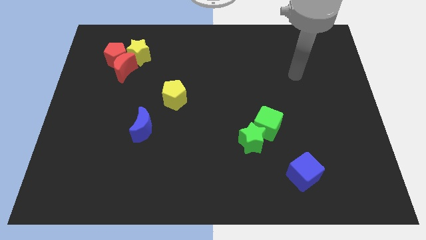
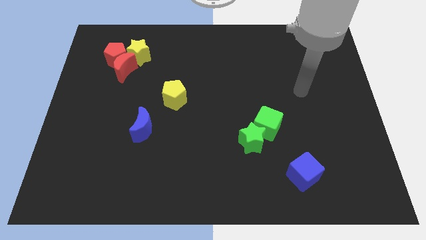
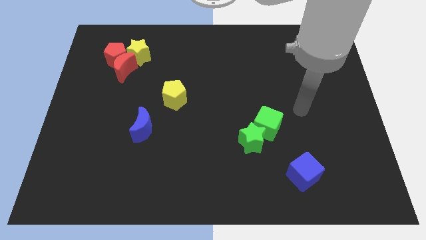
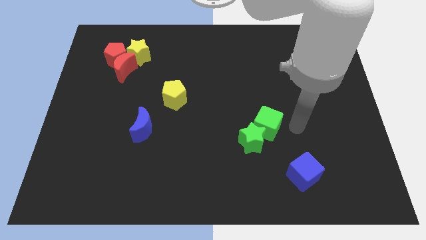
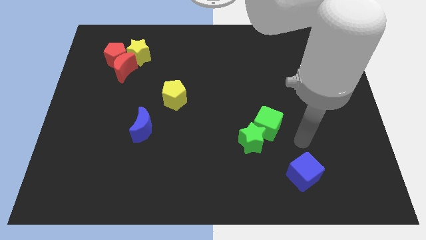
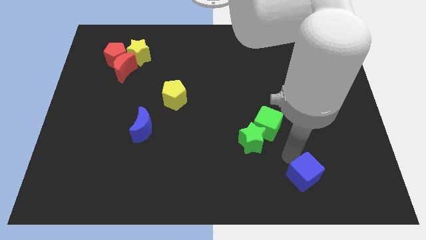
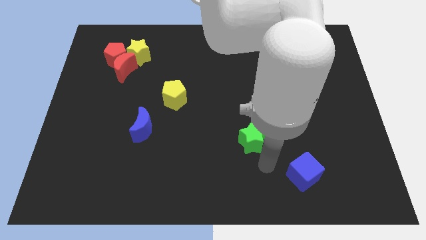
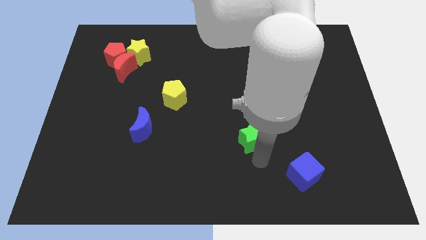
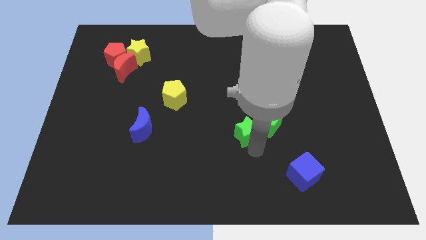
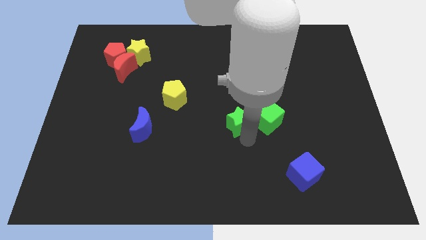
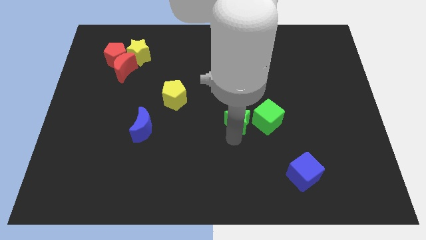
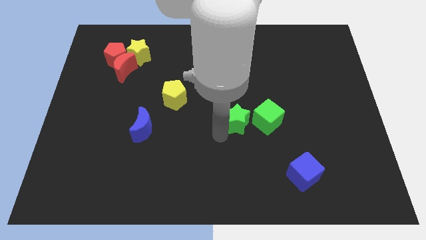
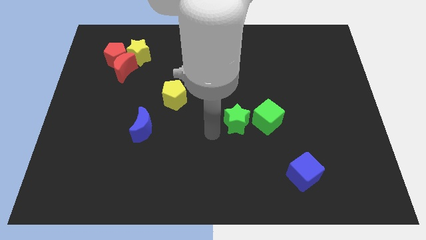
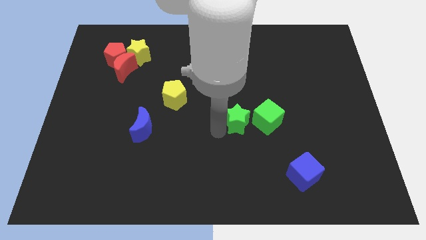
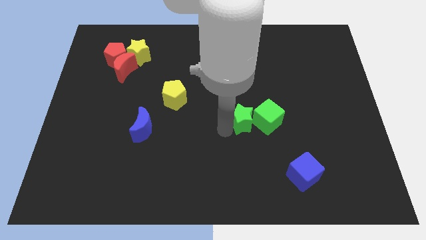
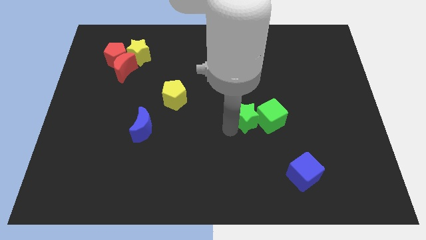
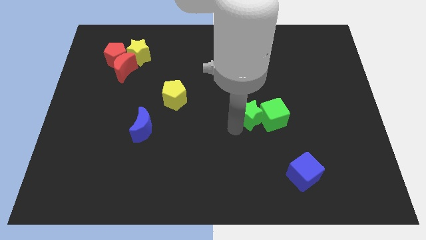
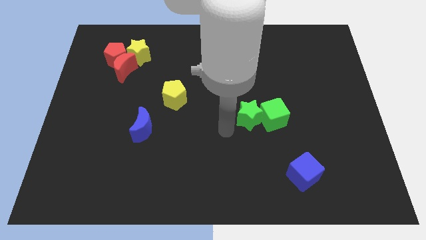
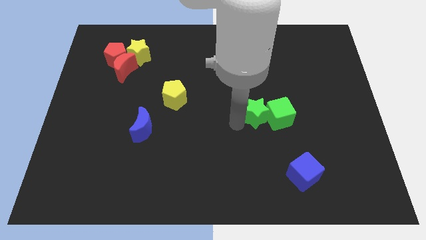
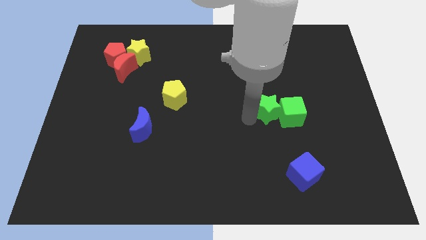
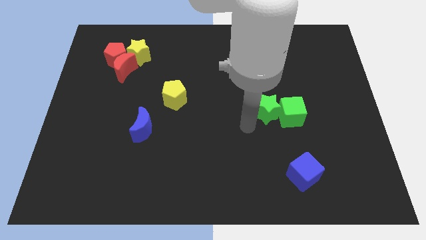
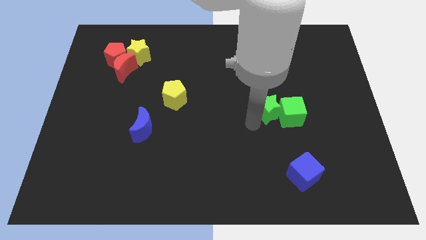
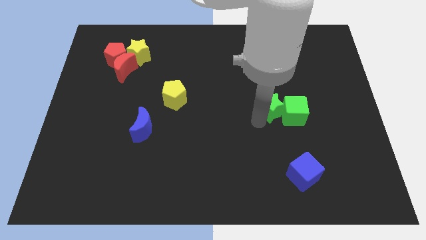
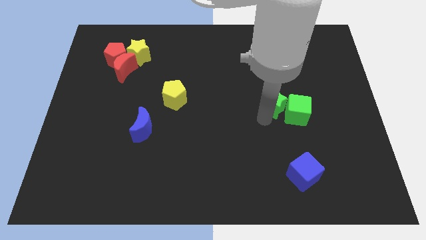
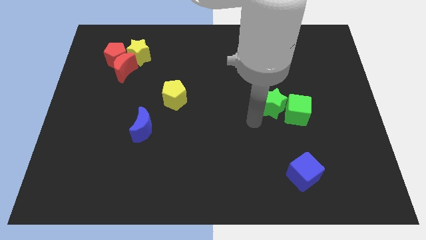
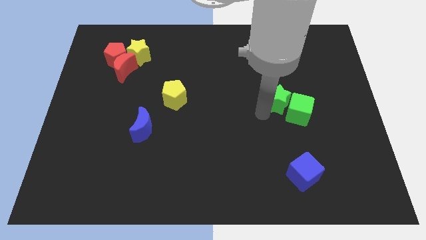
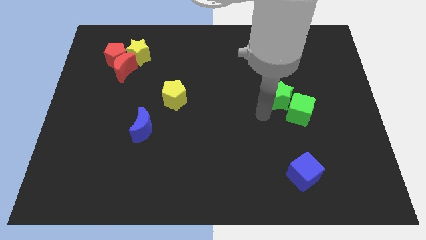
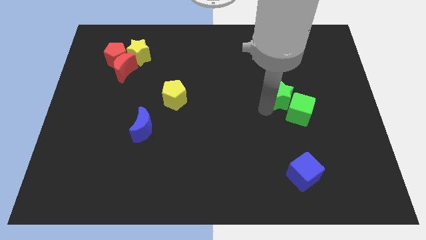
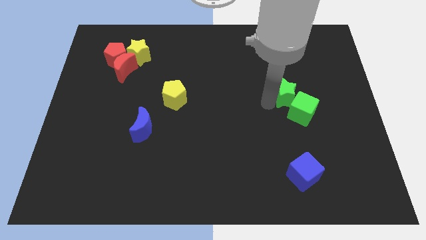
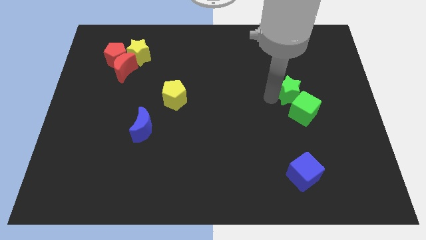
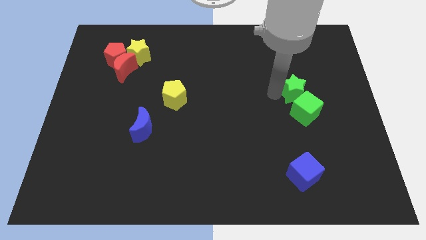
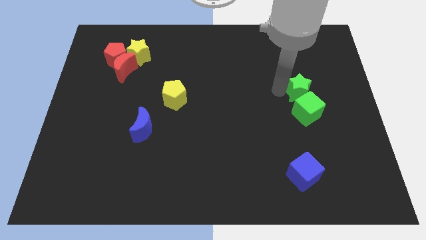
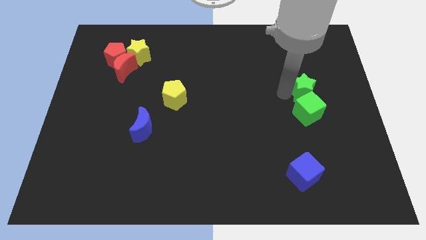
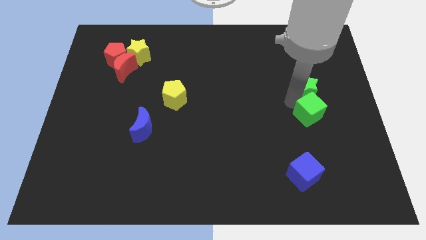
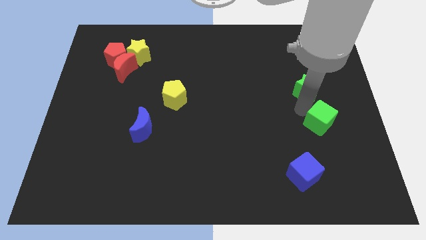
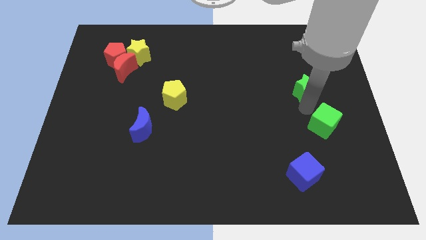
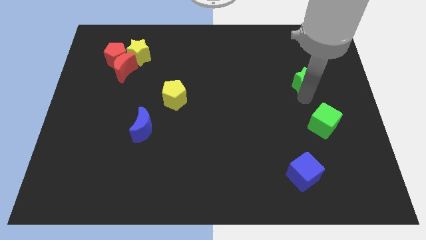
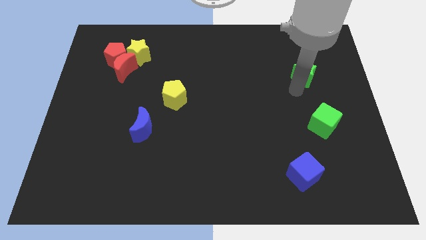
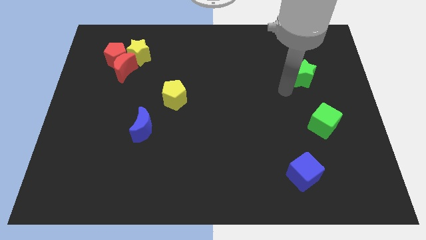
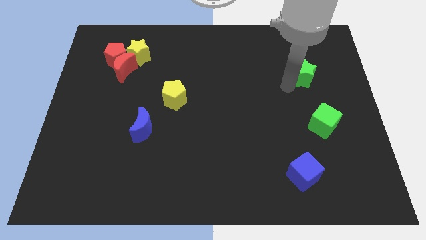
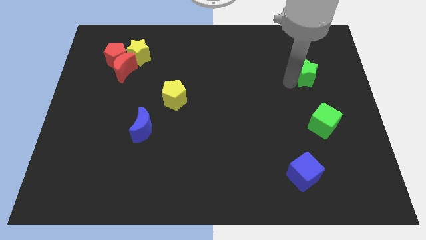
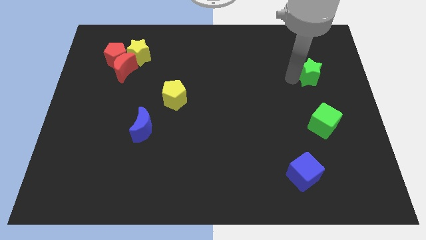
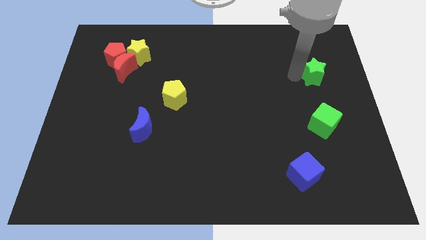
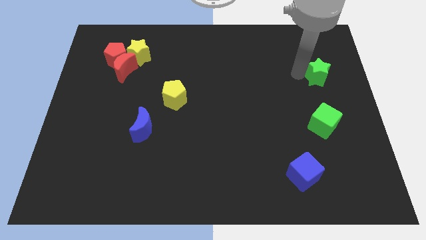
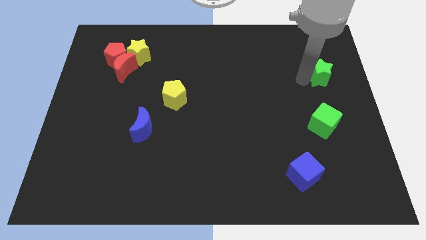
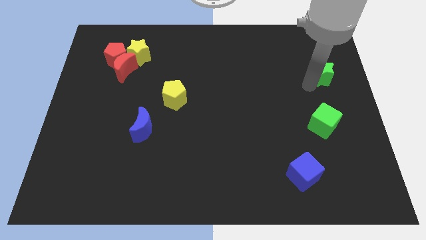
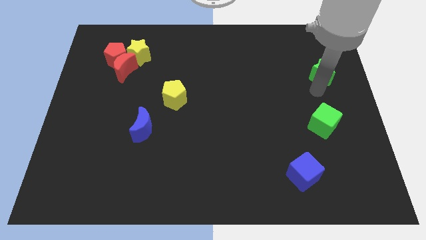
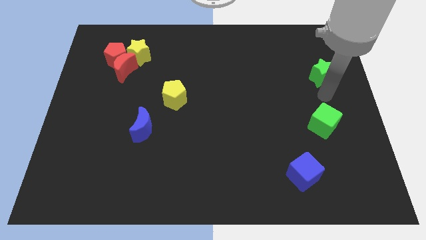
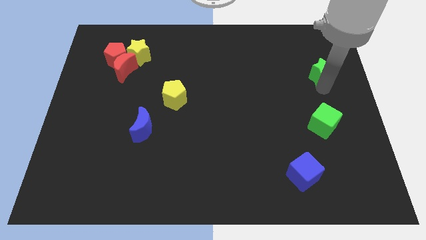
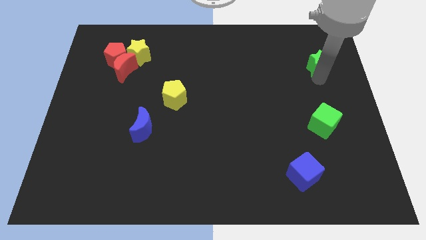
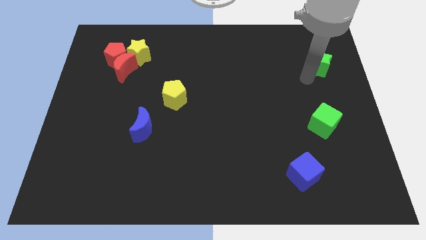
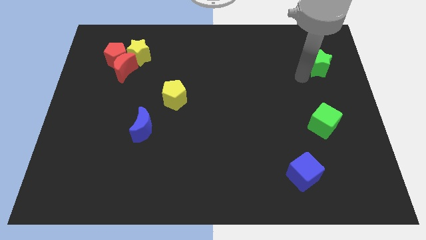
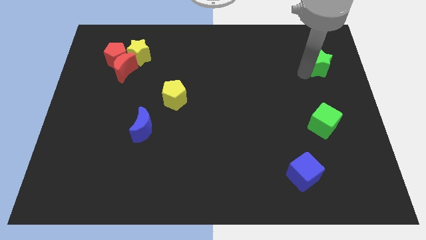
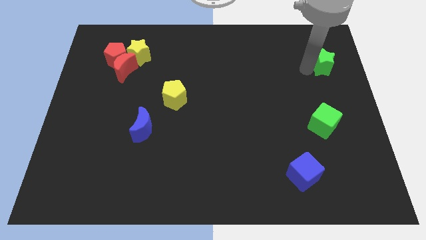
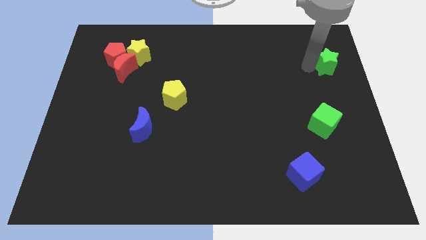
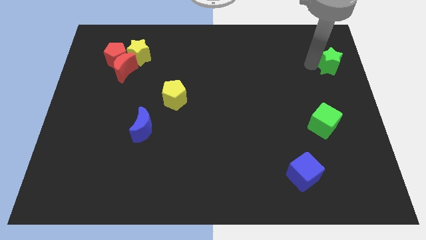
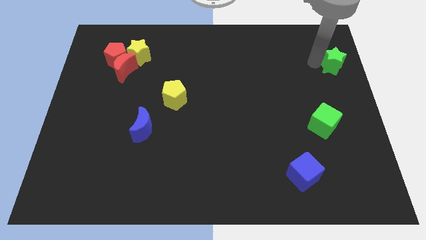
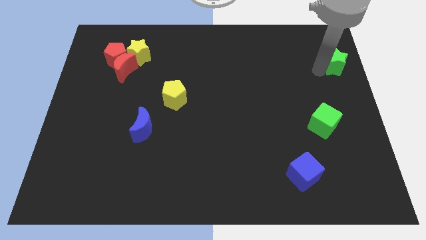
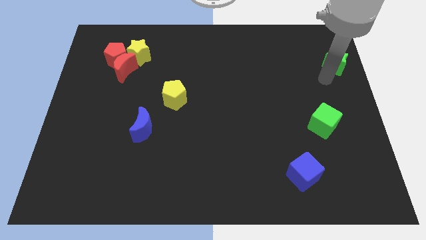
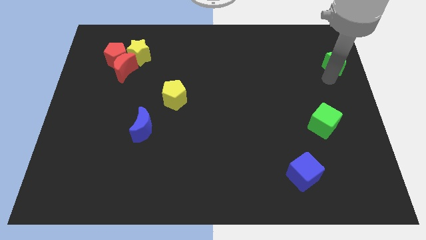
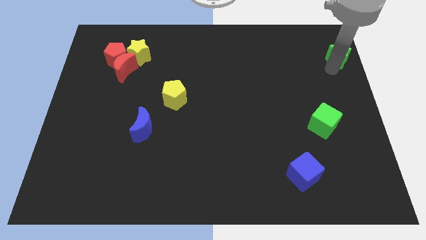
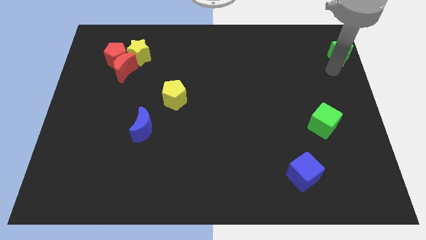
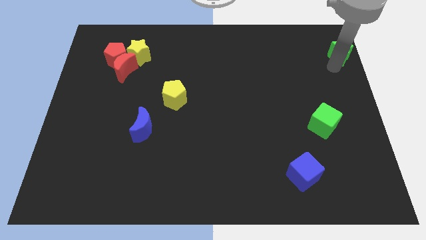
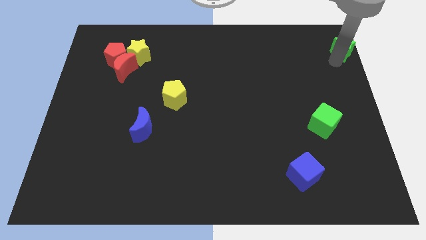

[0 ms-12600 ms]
put the green star to the top right of the board
